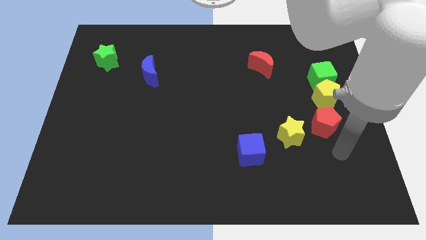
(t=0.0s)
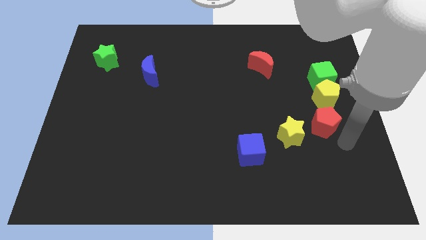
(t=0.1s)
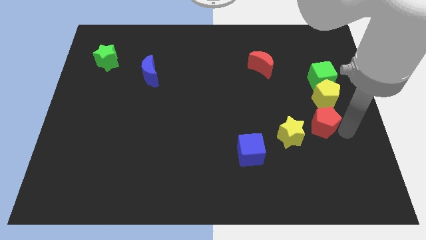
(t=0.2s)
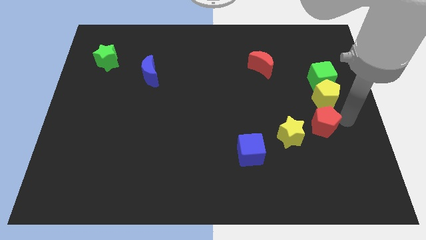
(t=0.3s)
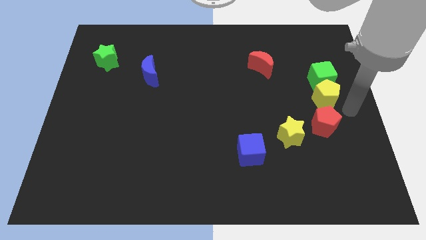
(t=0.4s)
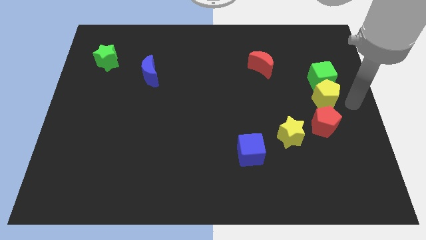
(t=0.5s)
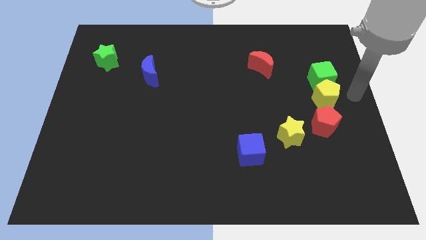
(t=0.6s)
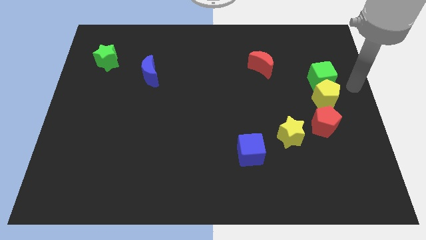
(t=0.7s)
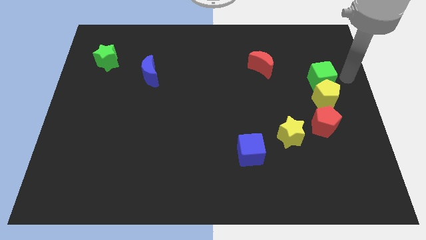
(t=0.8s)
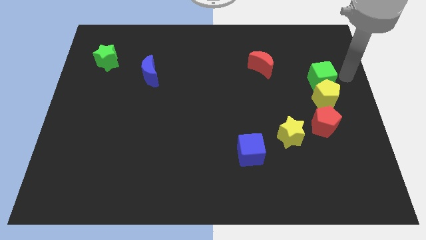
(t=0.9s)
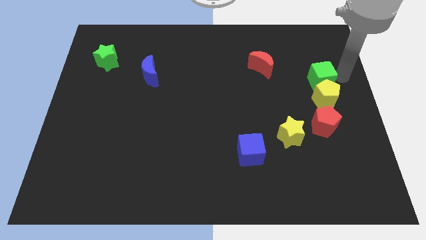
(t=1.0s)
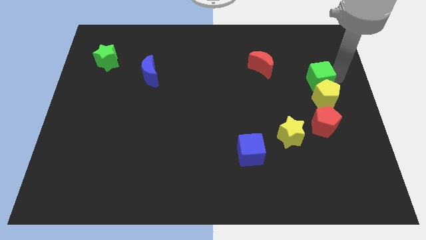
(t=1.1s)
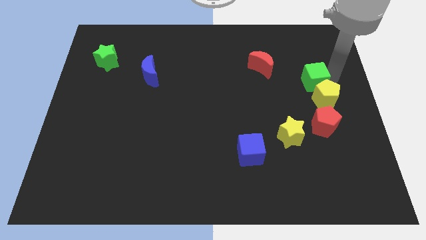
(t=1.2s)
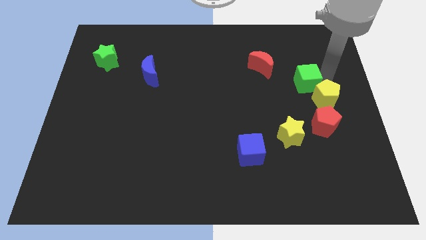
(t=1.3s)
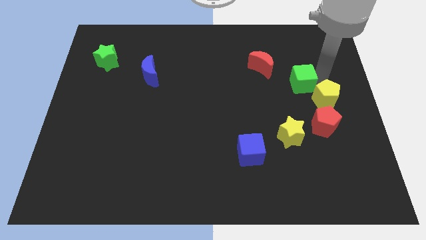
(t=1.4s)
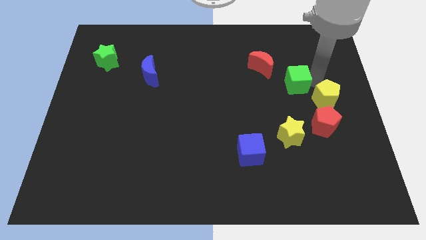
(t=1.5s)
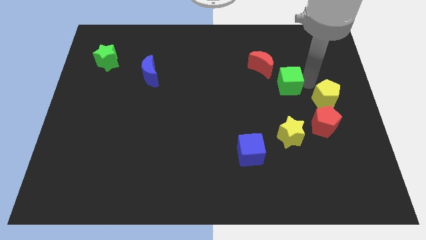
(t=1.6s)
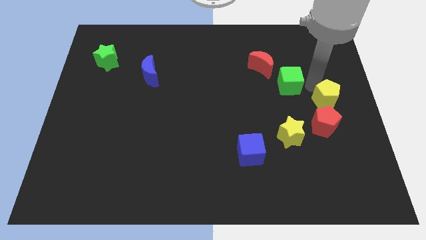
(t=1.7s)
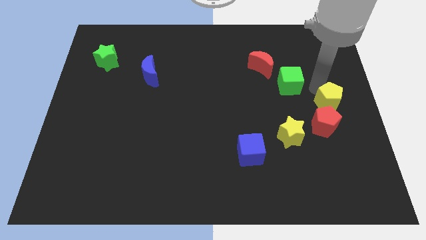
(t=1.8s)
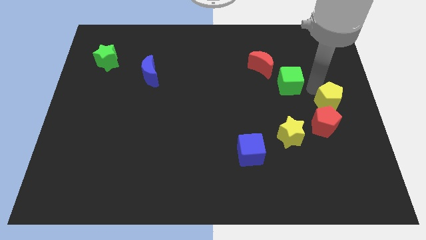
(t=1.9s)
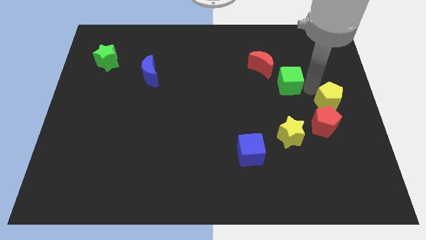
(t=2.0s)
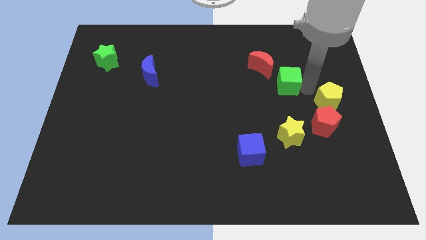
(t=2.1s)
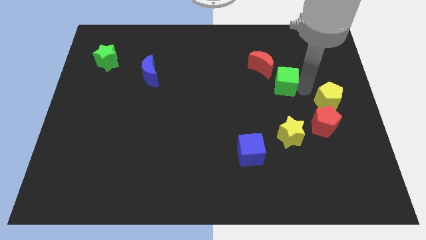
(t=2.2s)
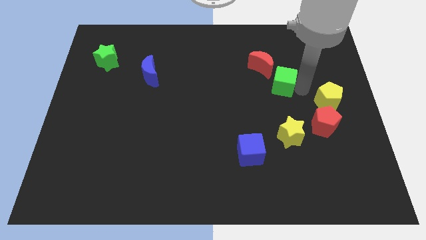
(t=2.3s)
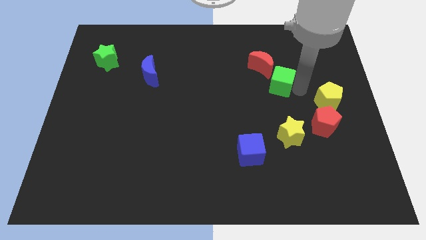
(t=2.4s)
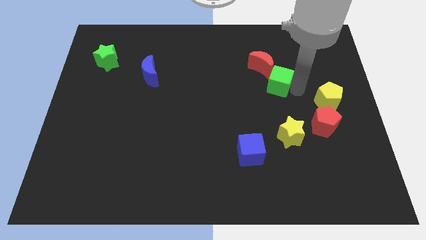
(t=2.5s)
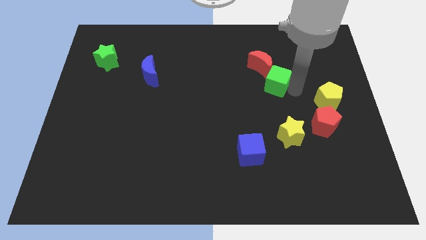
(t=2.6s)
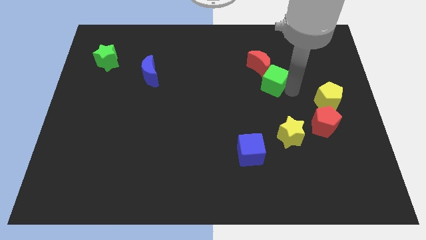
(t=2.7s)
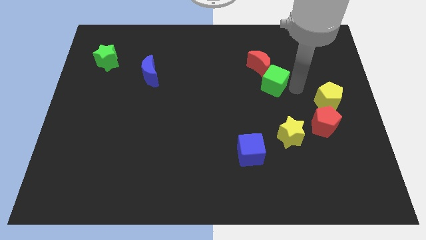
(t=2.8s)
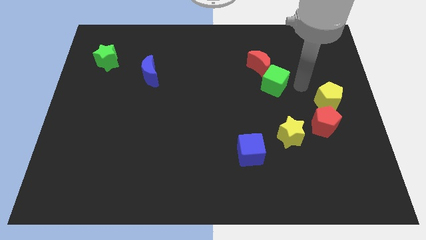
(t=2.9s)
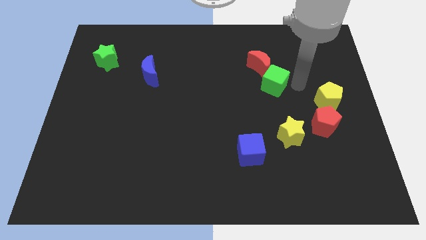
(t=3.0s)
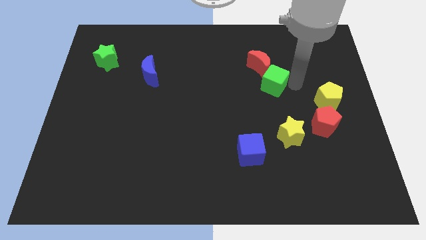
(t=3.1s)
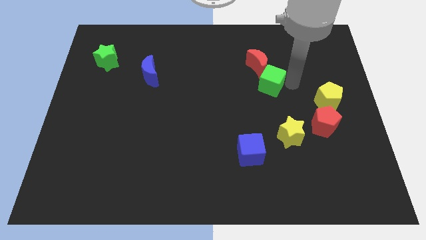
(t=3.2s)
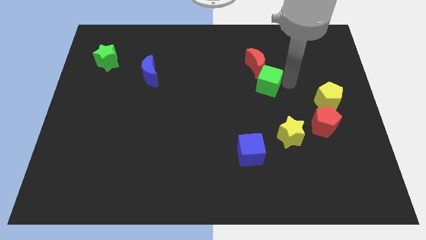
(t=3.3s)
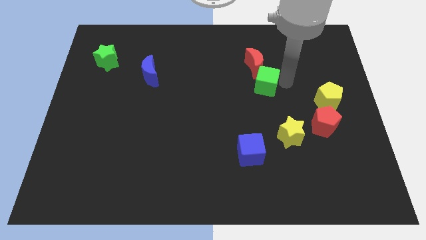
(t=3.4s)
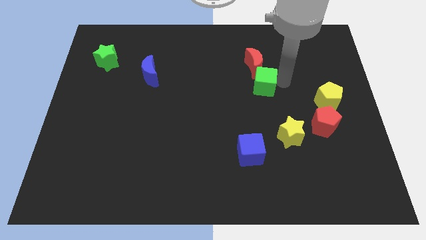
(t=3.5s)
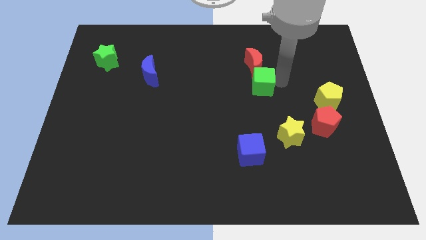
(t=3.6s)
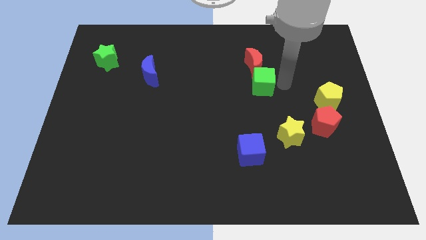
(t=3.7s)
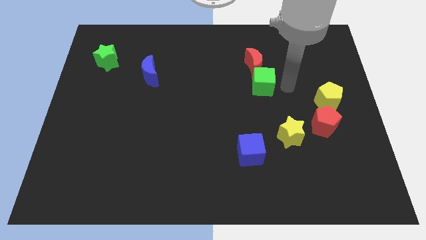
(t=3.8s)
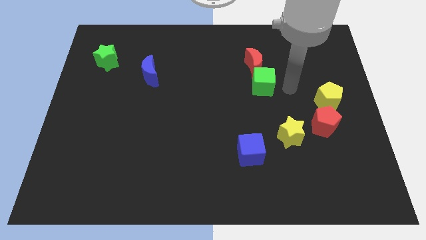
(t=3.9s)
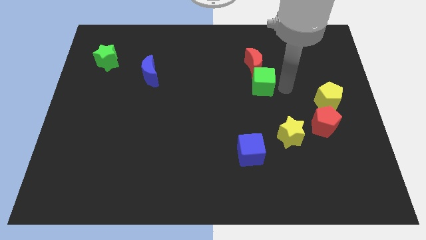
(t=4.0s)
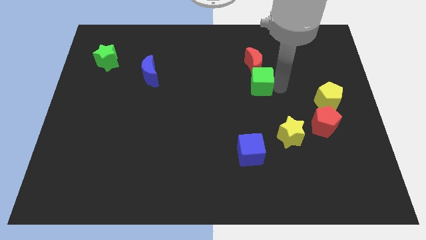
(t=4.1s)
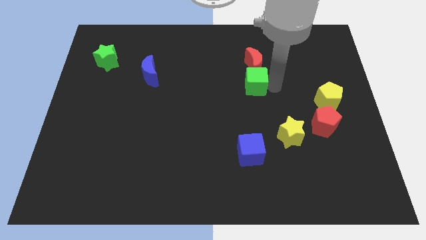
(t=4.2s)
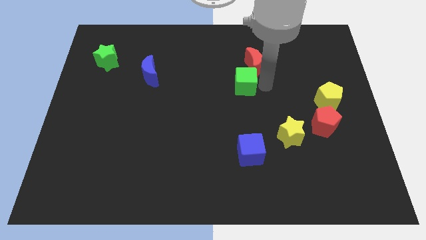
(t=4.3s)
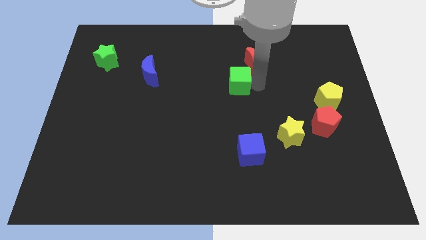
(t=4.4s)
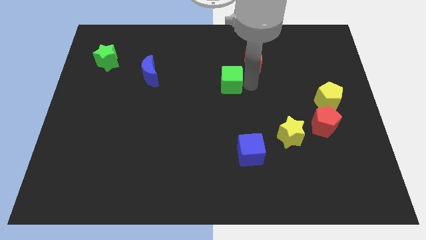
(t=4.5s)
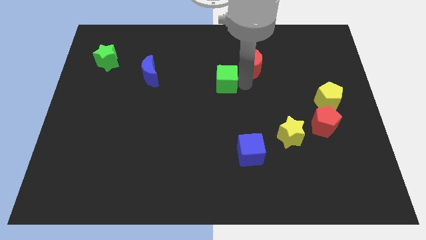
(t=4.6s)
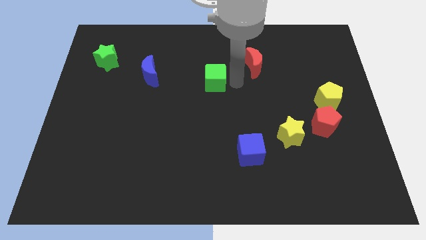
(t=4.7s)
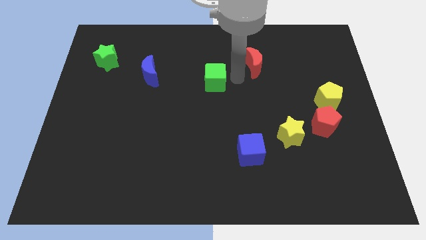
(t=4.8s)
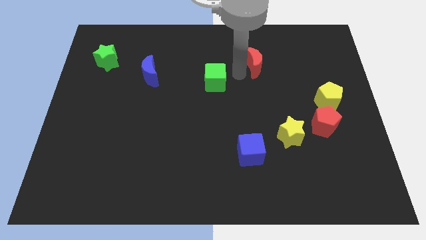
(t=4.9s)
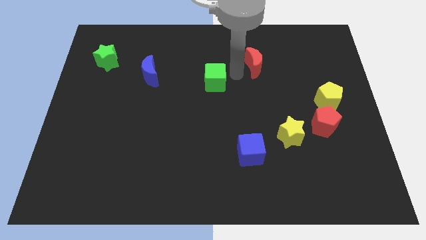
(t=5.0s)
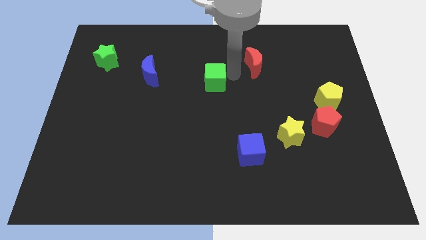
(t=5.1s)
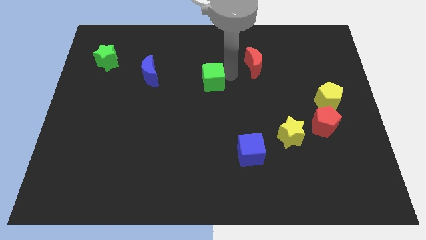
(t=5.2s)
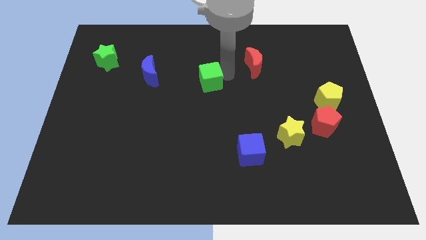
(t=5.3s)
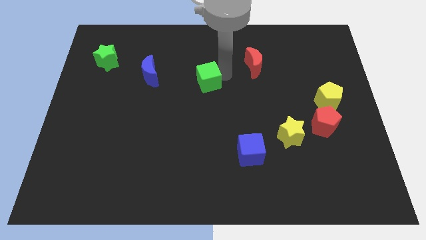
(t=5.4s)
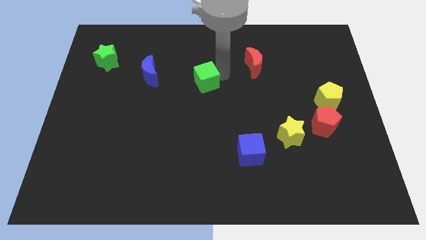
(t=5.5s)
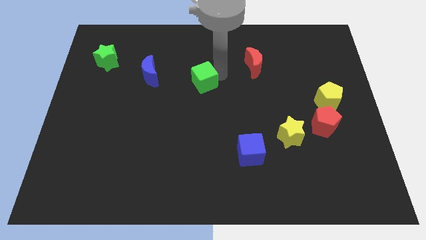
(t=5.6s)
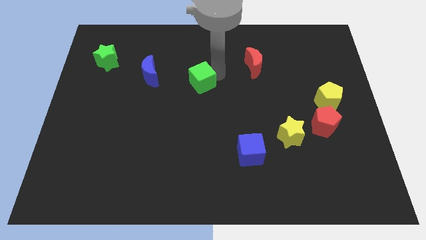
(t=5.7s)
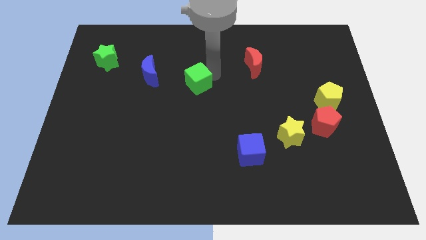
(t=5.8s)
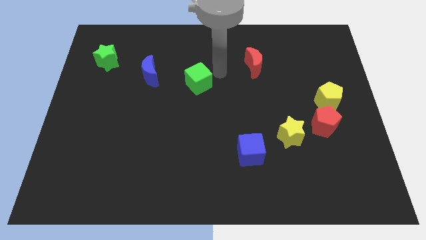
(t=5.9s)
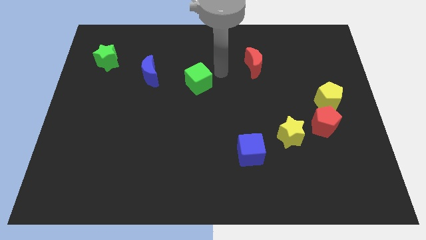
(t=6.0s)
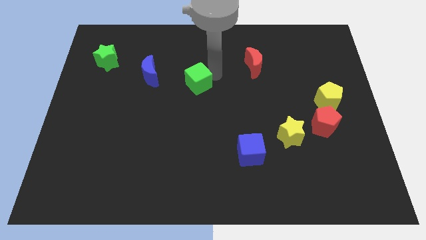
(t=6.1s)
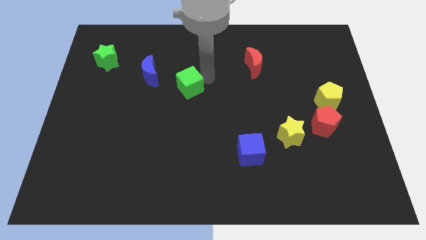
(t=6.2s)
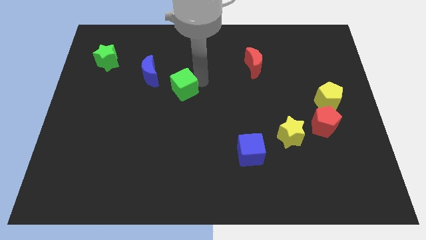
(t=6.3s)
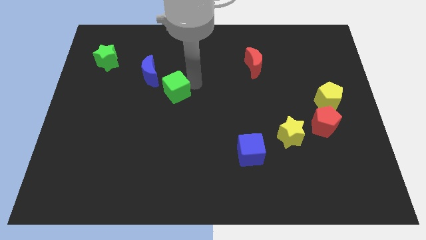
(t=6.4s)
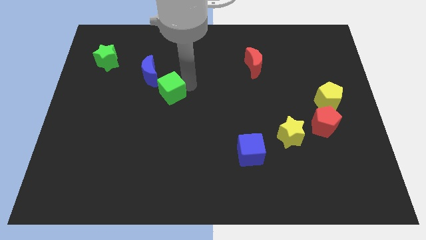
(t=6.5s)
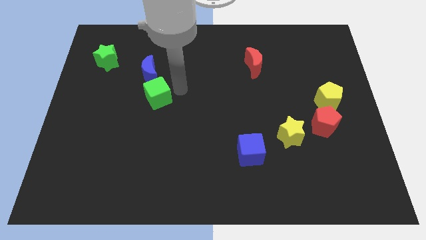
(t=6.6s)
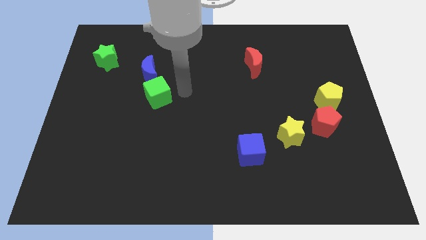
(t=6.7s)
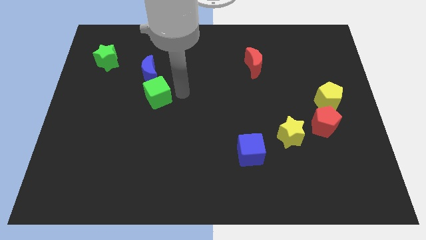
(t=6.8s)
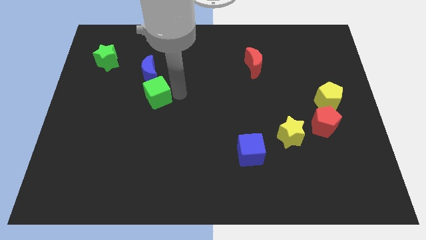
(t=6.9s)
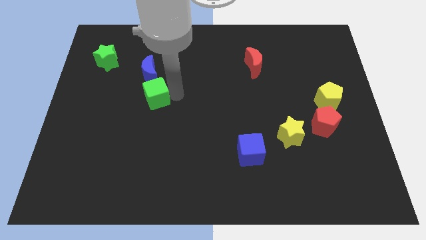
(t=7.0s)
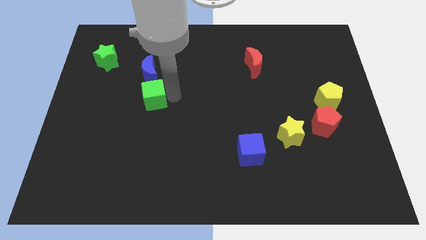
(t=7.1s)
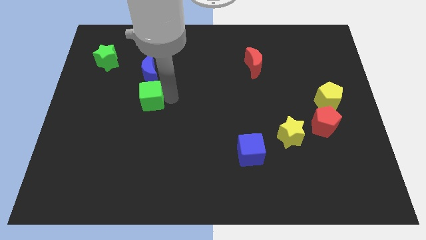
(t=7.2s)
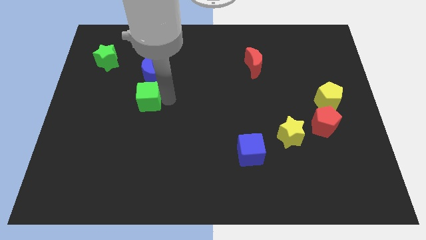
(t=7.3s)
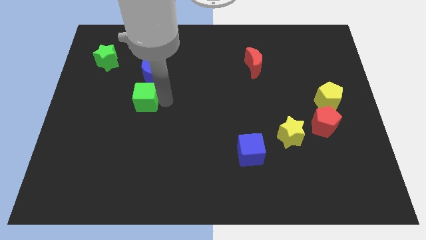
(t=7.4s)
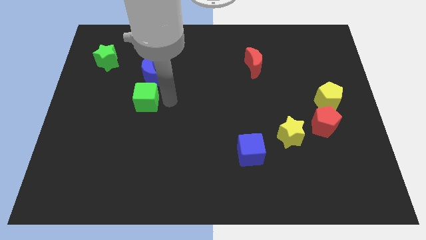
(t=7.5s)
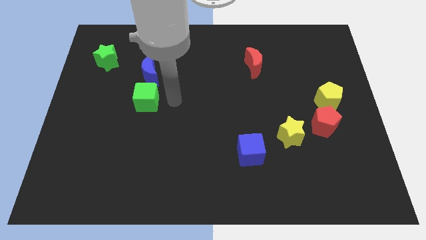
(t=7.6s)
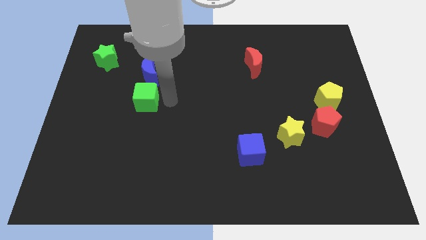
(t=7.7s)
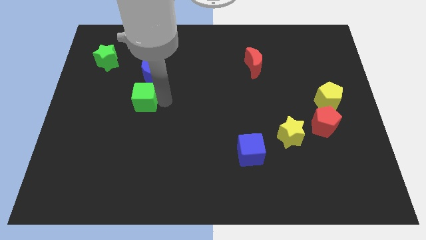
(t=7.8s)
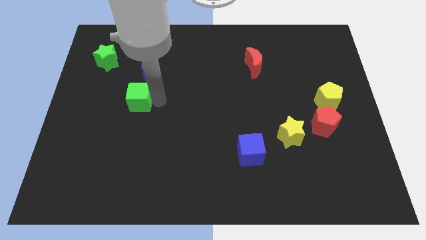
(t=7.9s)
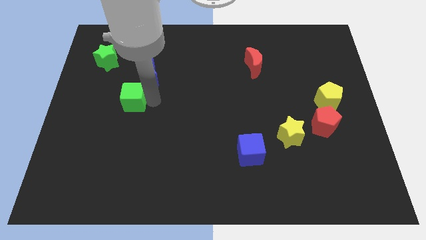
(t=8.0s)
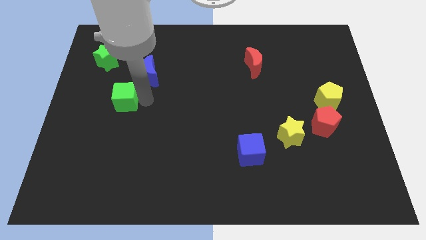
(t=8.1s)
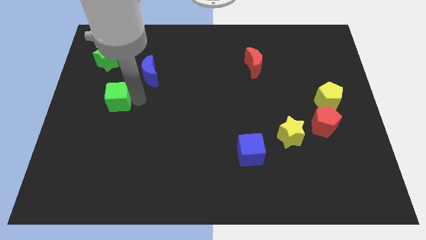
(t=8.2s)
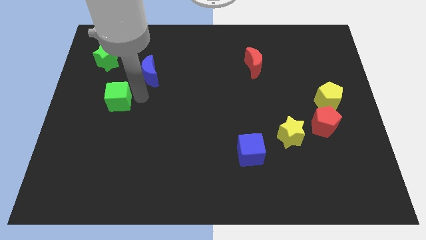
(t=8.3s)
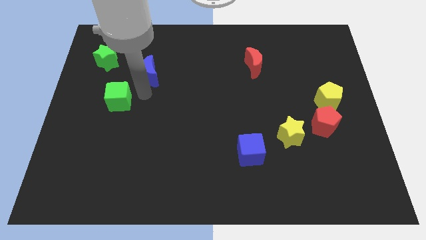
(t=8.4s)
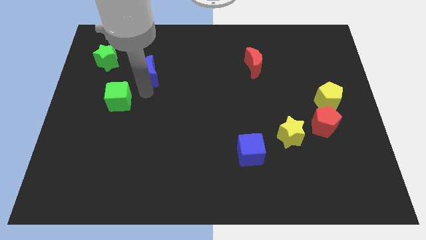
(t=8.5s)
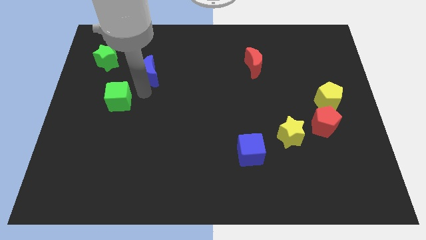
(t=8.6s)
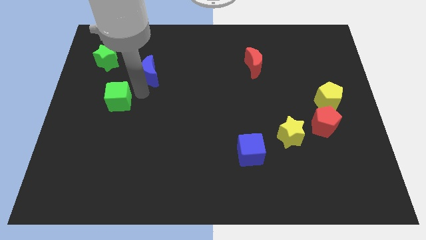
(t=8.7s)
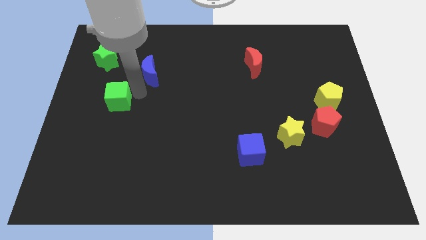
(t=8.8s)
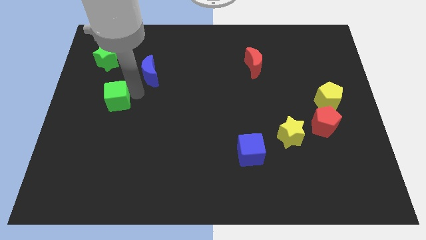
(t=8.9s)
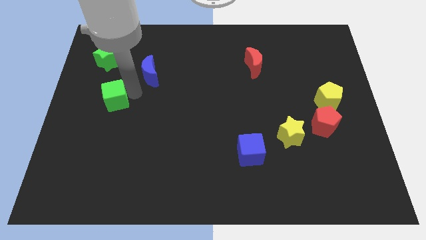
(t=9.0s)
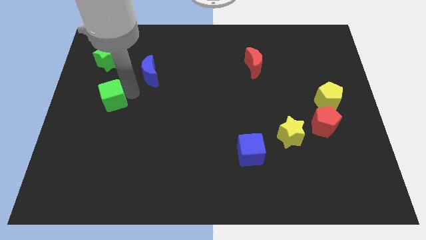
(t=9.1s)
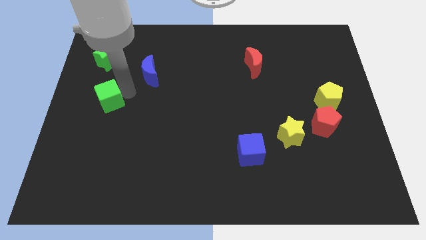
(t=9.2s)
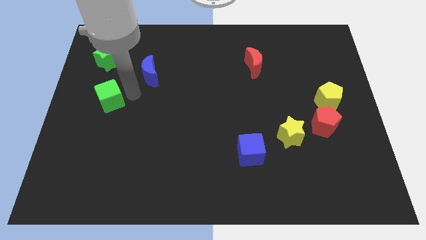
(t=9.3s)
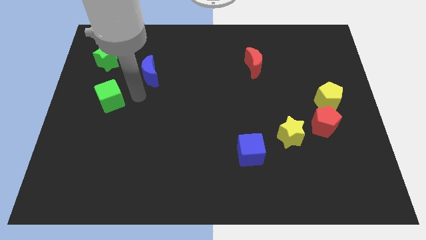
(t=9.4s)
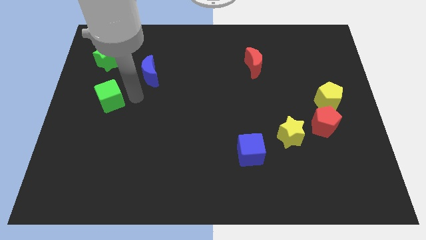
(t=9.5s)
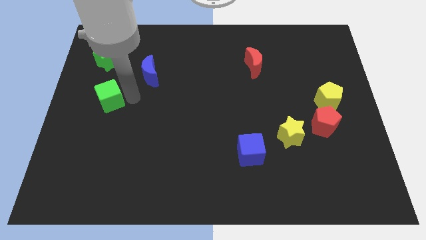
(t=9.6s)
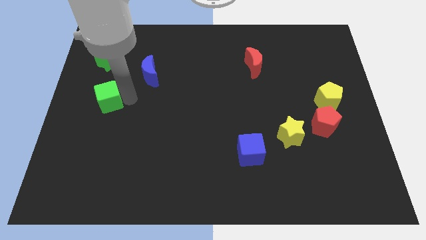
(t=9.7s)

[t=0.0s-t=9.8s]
push the green cube to the left side of the board
